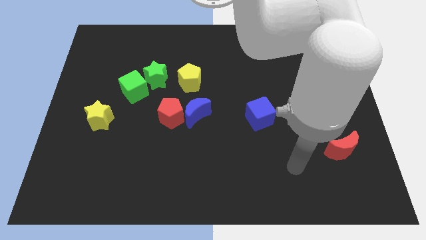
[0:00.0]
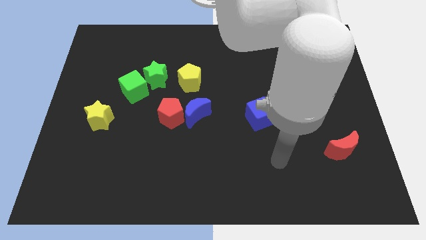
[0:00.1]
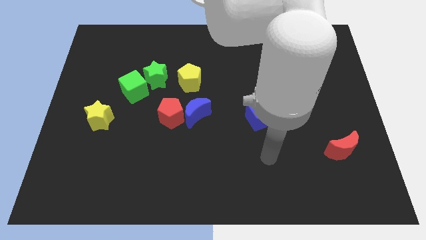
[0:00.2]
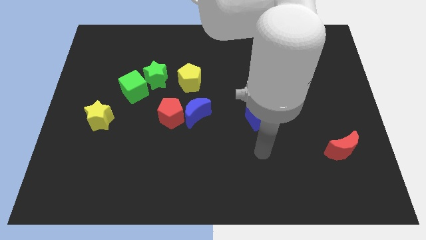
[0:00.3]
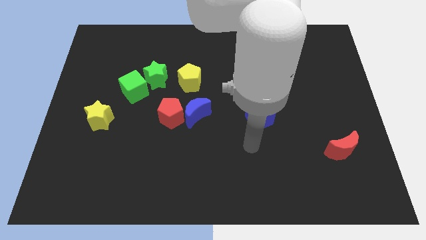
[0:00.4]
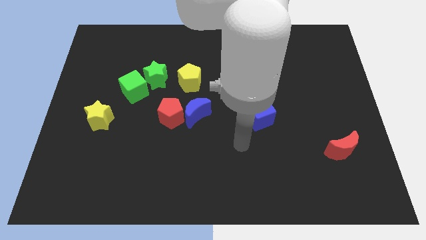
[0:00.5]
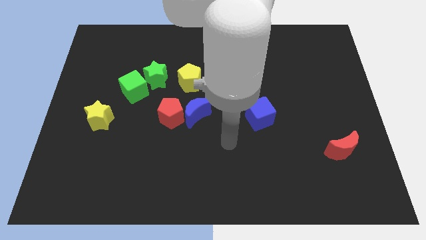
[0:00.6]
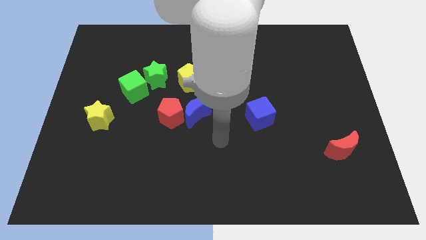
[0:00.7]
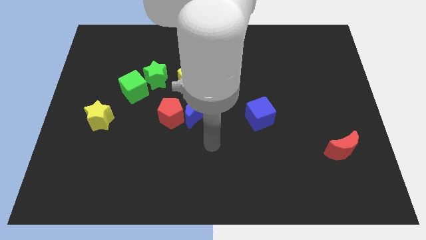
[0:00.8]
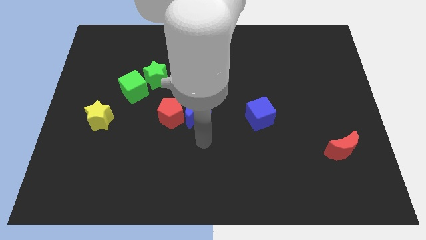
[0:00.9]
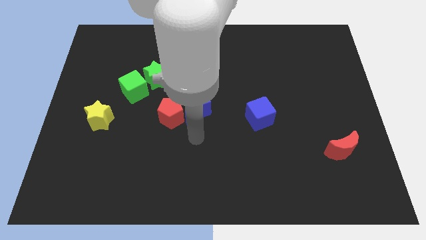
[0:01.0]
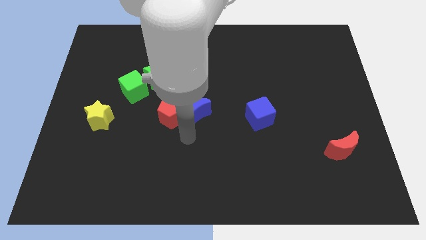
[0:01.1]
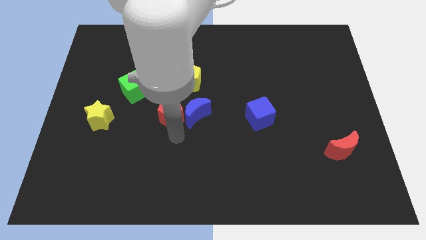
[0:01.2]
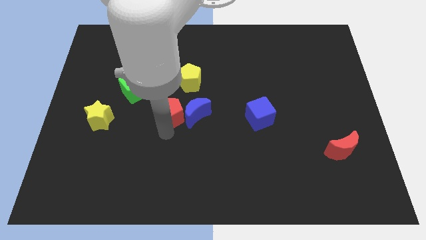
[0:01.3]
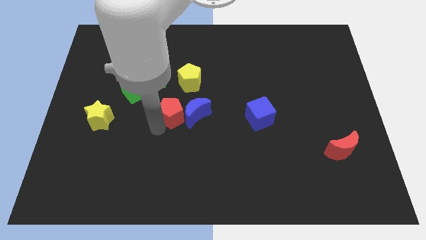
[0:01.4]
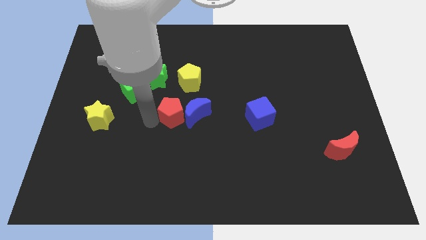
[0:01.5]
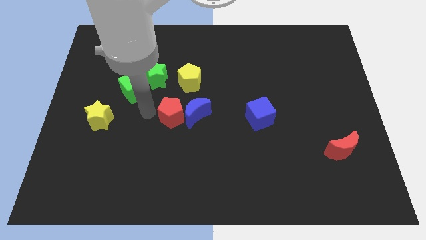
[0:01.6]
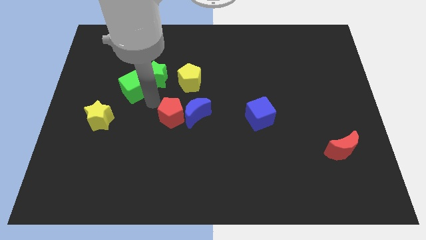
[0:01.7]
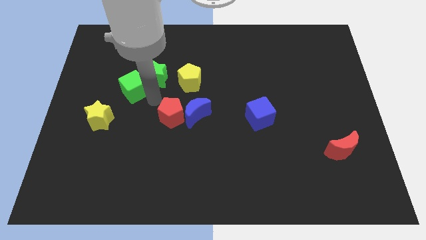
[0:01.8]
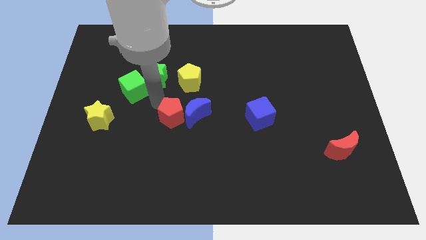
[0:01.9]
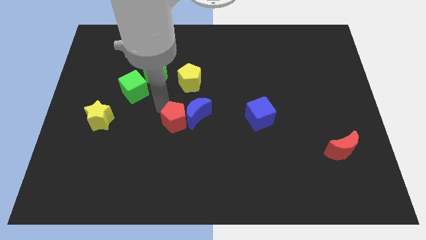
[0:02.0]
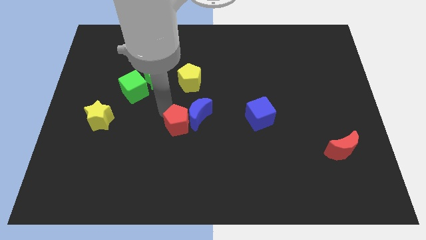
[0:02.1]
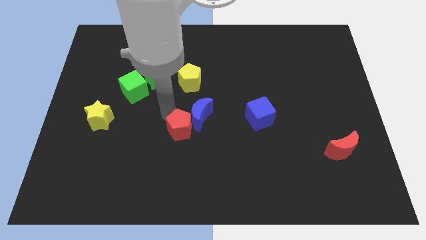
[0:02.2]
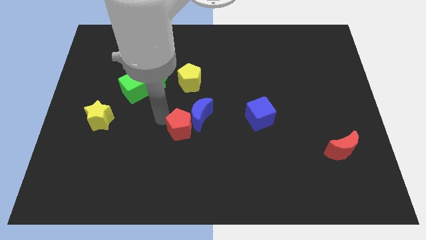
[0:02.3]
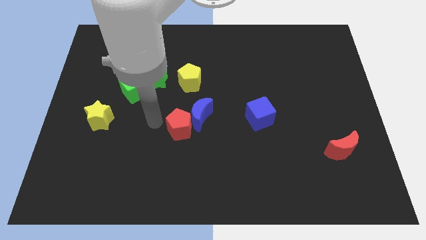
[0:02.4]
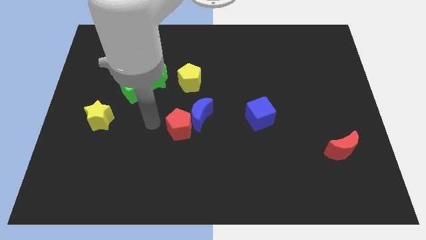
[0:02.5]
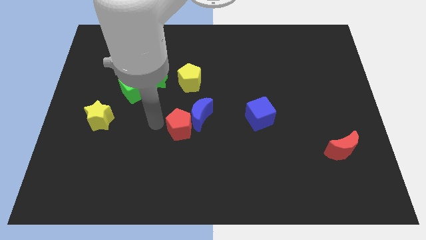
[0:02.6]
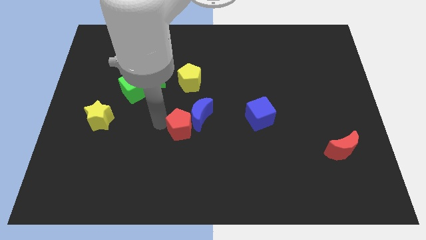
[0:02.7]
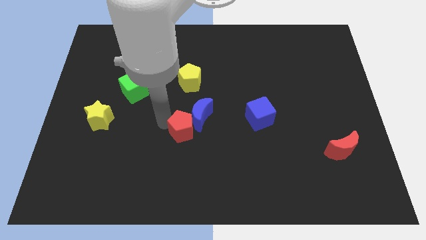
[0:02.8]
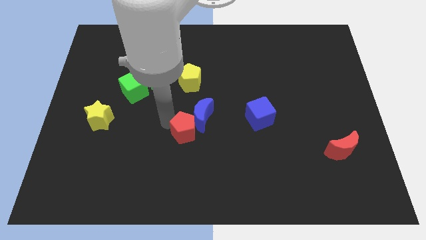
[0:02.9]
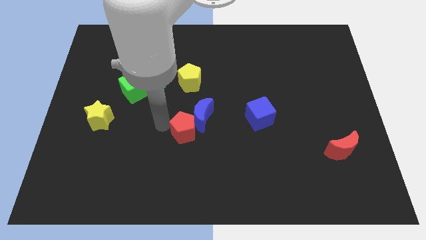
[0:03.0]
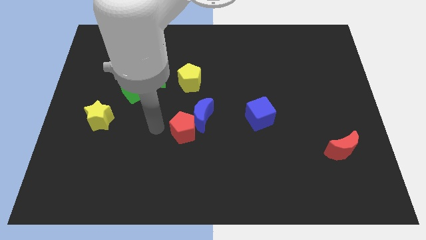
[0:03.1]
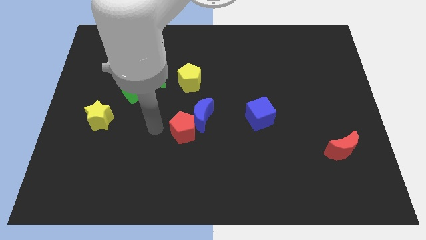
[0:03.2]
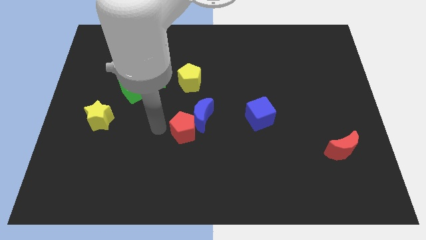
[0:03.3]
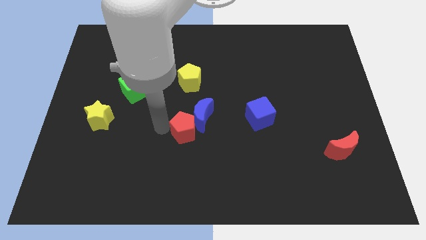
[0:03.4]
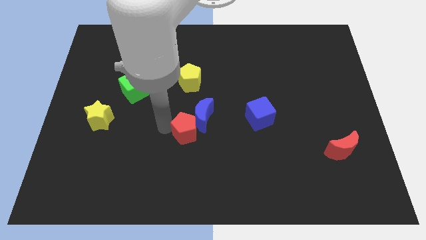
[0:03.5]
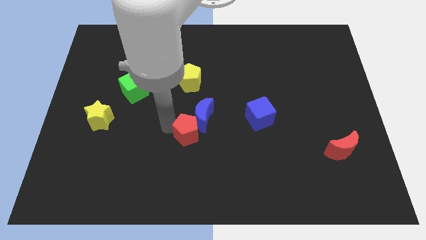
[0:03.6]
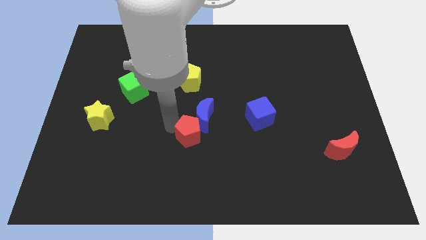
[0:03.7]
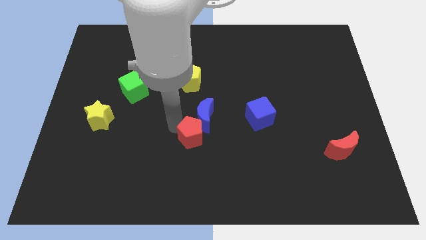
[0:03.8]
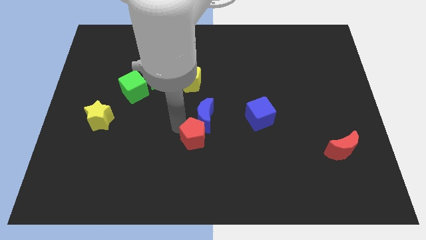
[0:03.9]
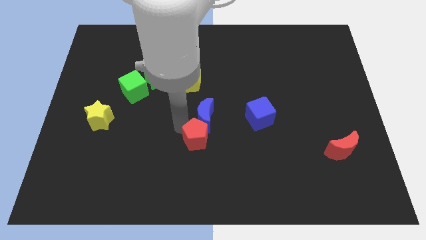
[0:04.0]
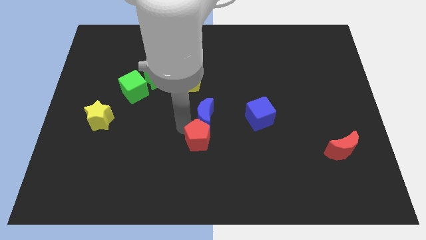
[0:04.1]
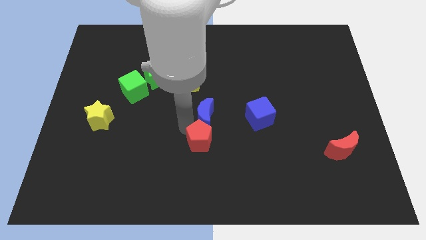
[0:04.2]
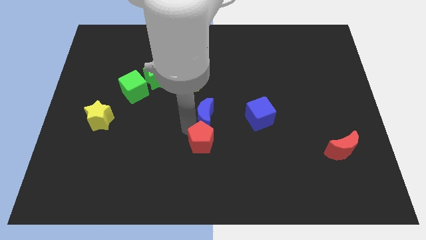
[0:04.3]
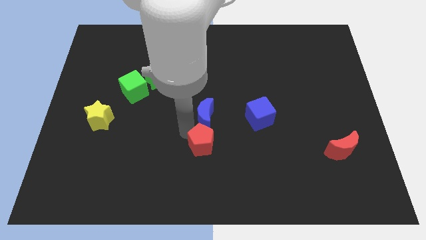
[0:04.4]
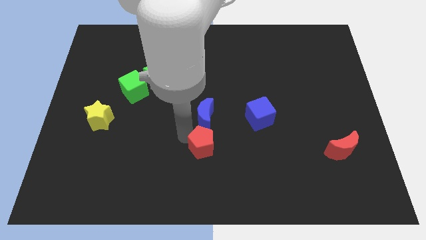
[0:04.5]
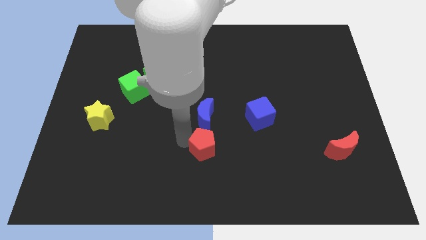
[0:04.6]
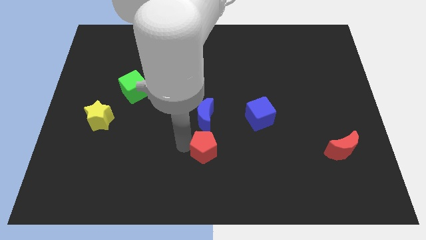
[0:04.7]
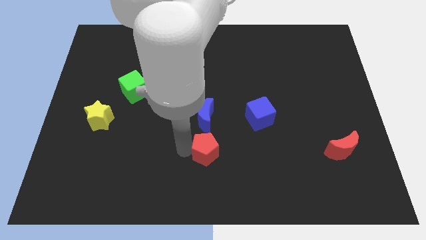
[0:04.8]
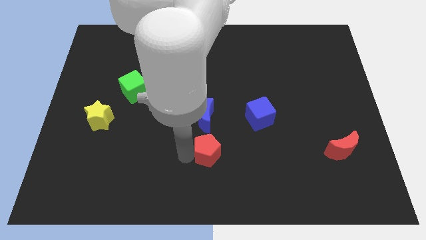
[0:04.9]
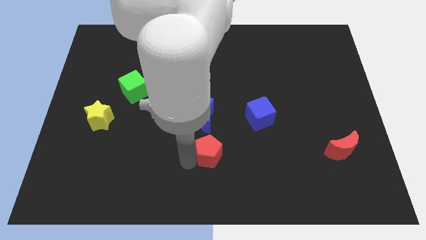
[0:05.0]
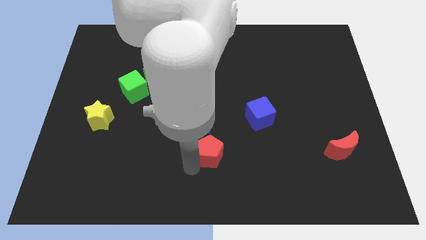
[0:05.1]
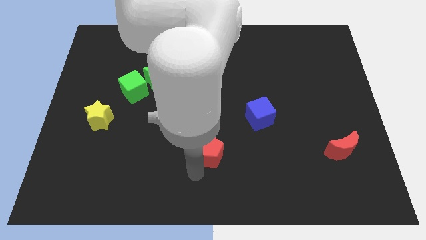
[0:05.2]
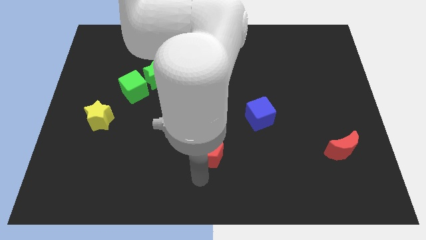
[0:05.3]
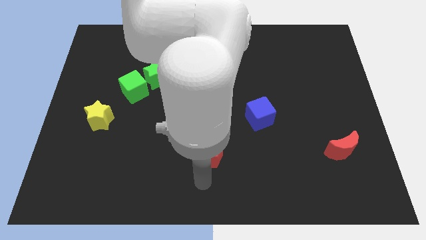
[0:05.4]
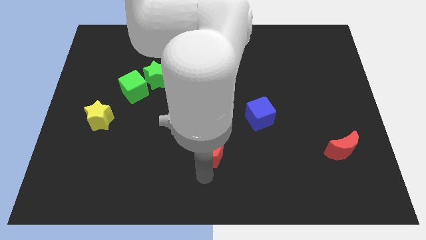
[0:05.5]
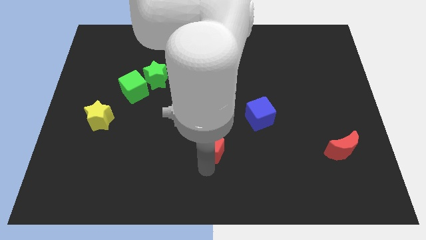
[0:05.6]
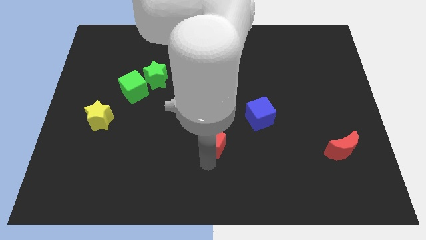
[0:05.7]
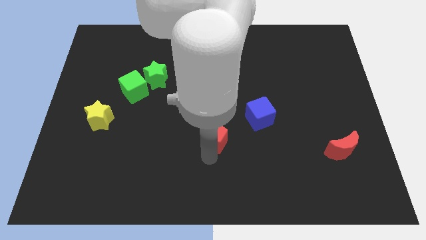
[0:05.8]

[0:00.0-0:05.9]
slide the red pentagon to the bottom left side of the blue cube
